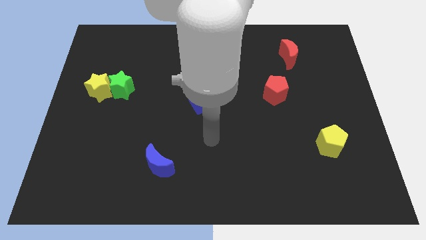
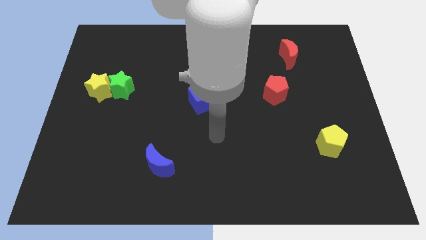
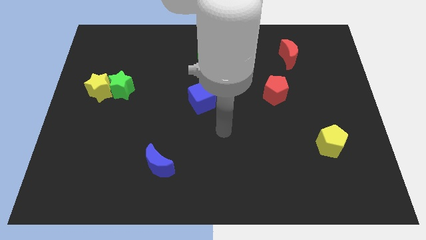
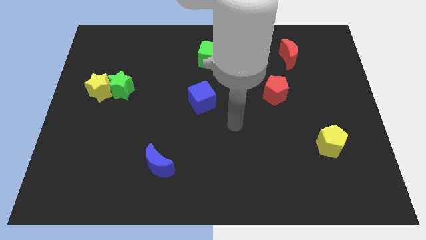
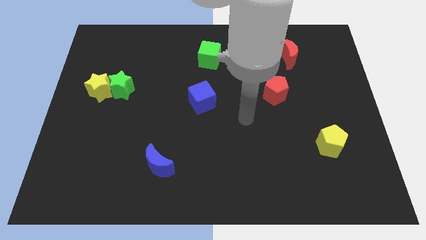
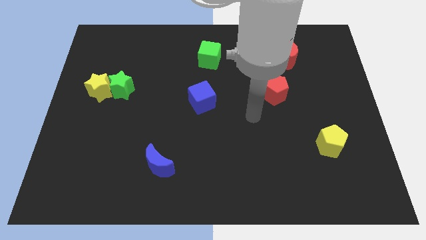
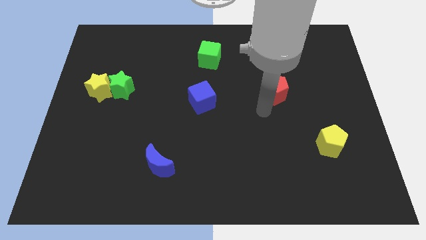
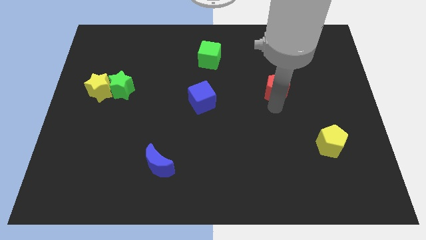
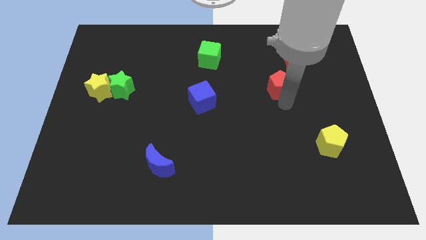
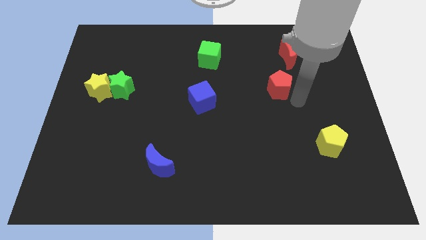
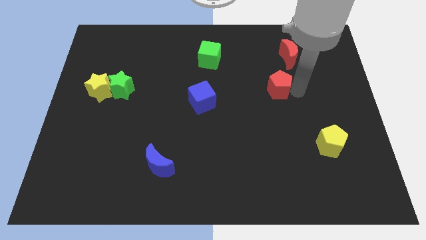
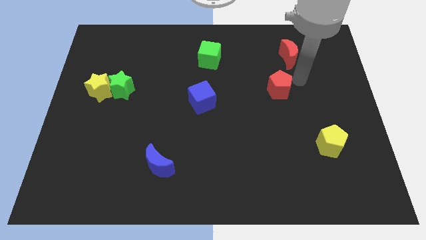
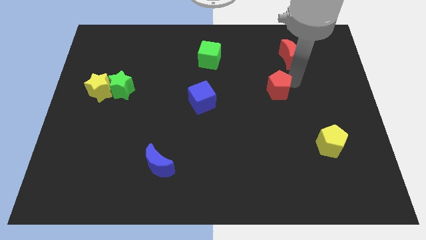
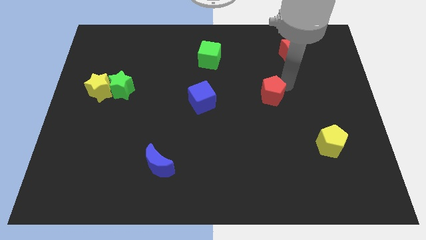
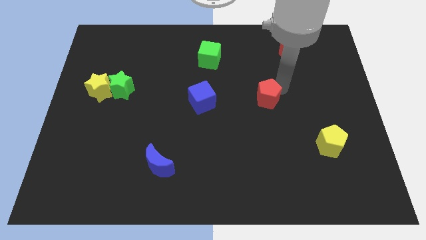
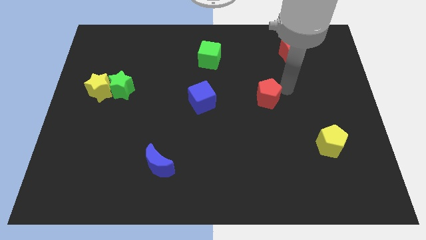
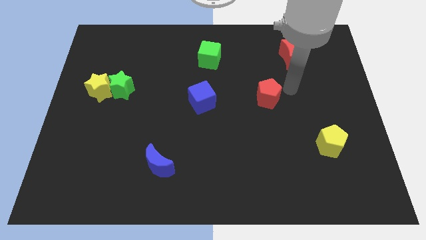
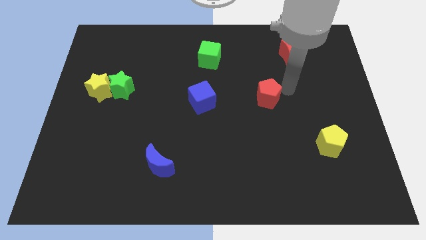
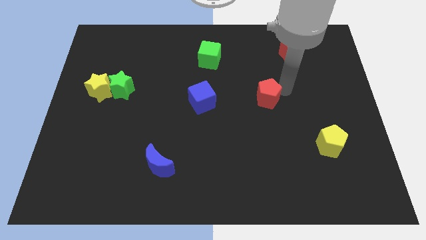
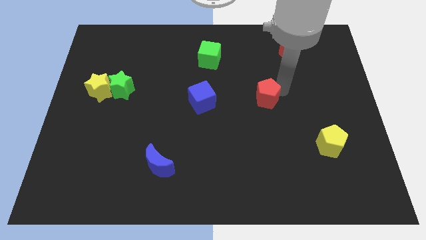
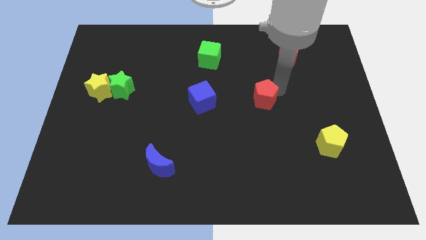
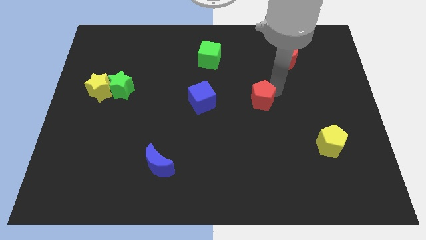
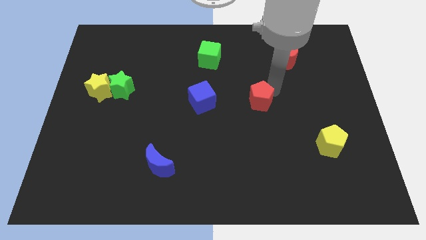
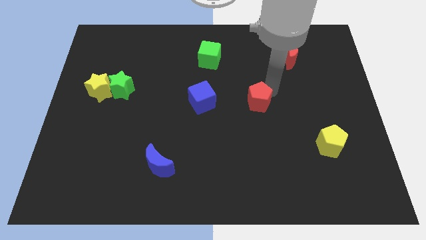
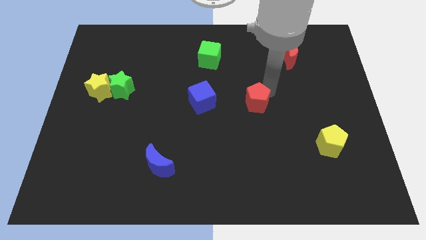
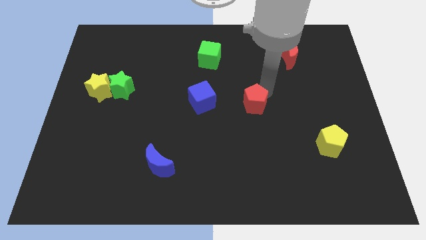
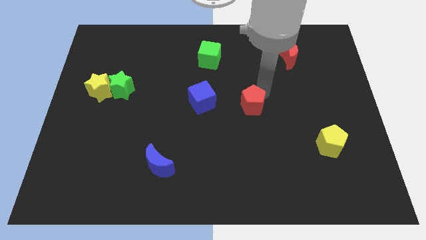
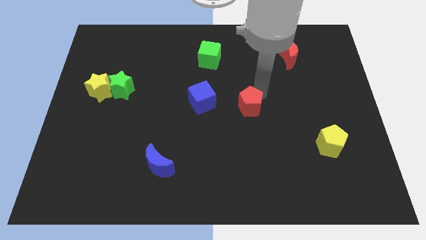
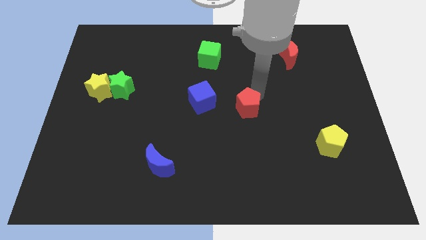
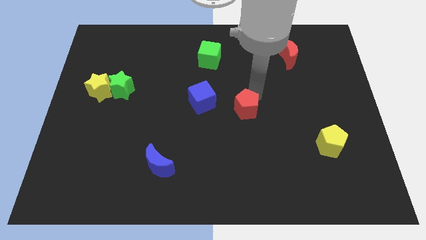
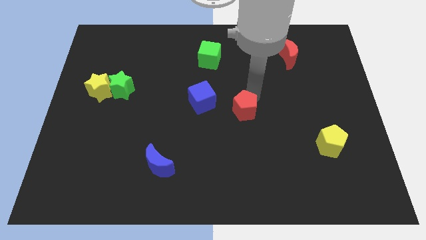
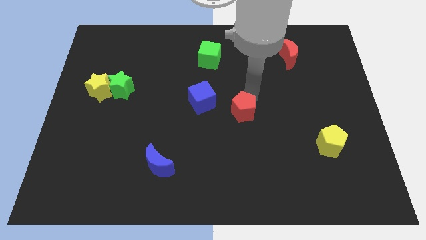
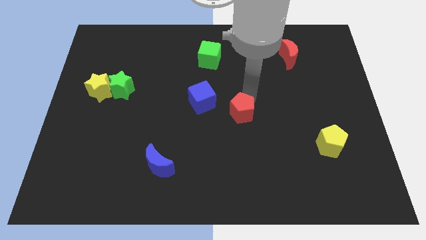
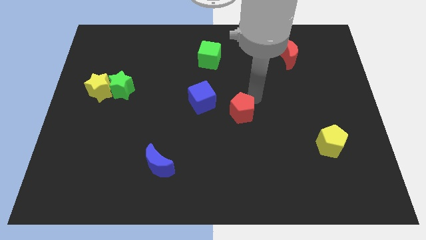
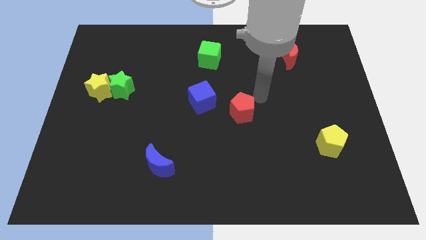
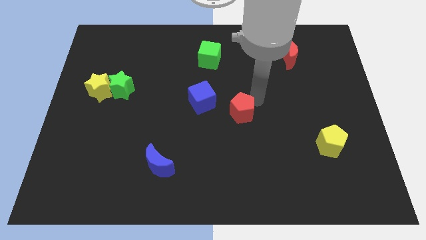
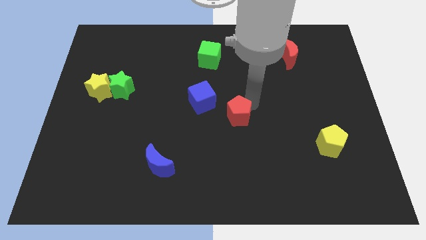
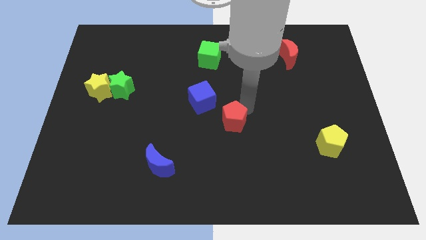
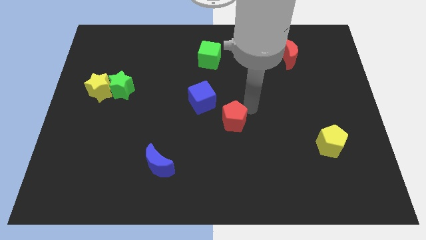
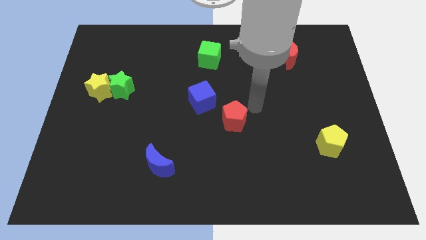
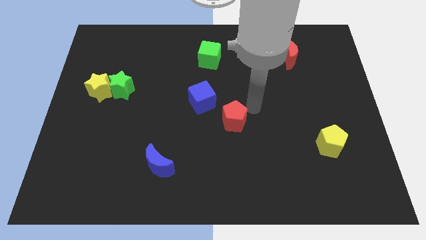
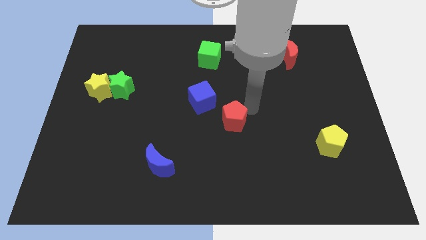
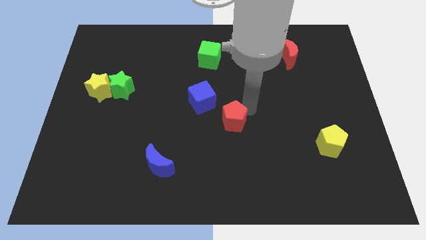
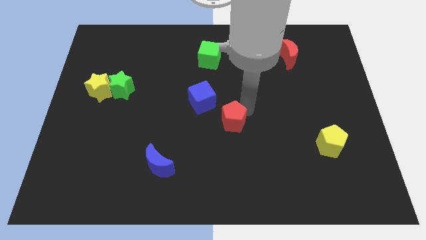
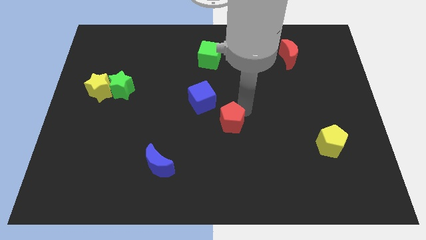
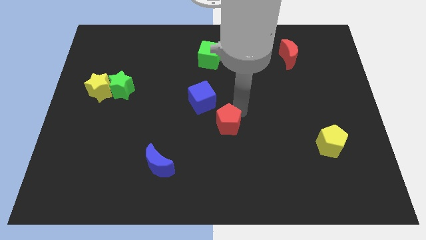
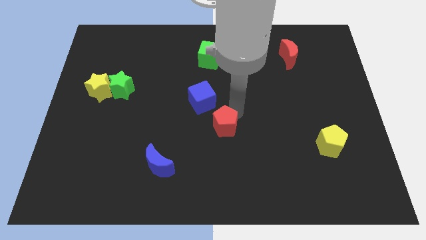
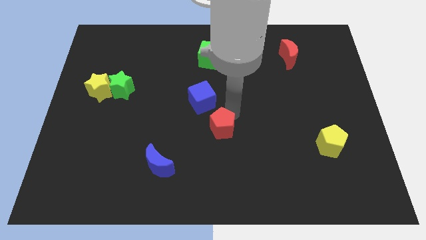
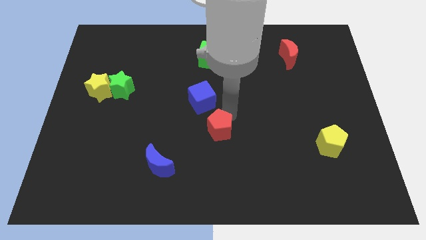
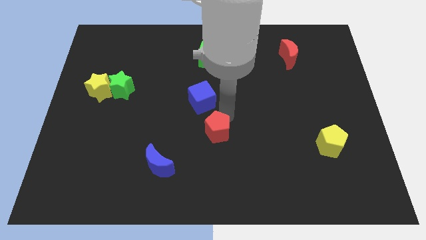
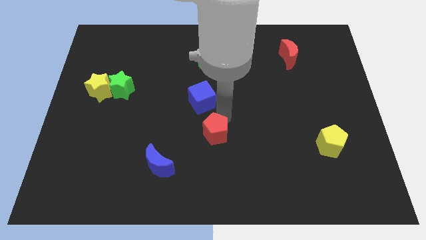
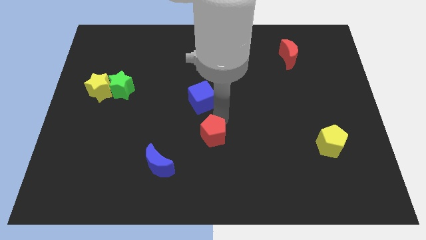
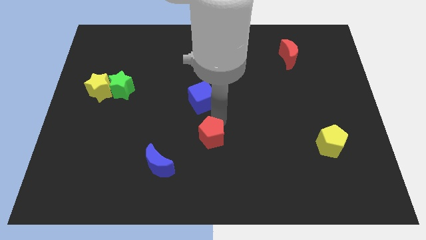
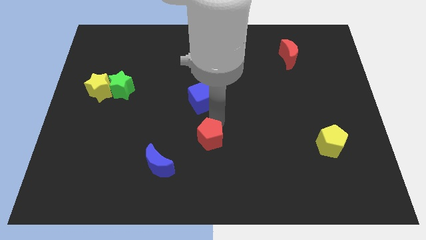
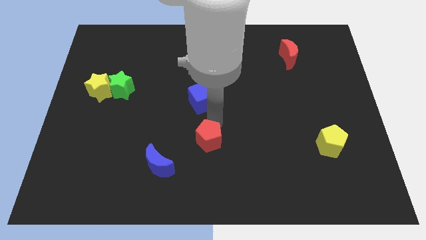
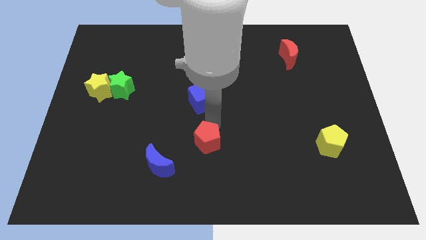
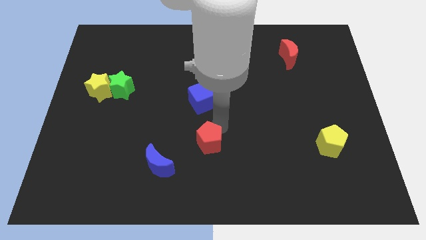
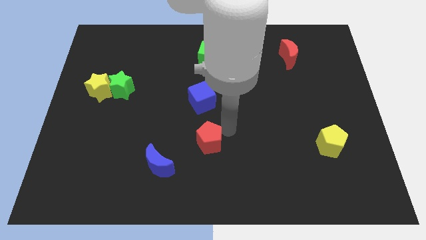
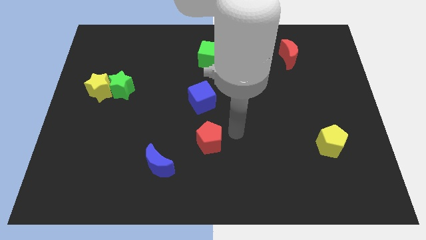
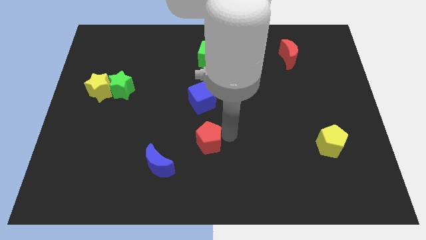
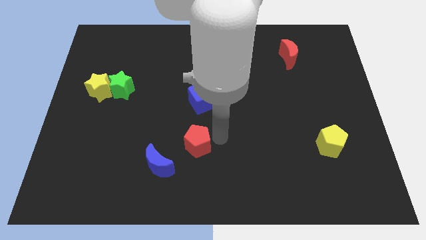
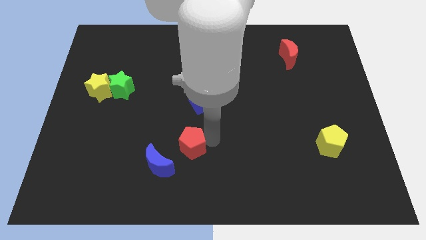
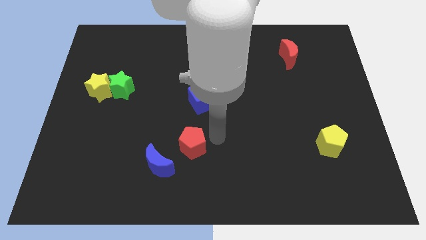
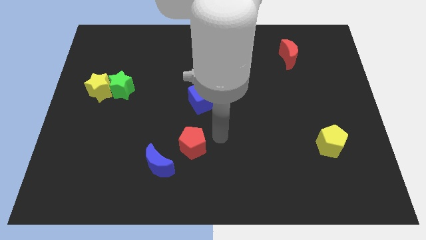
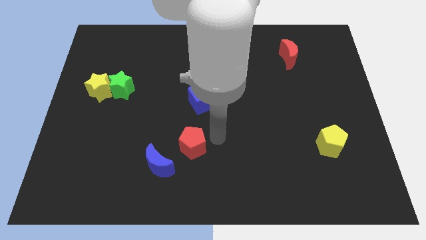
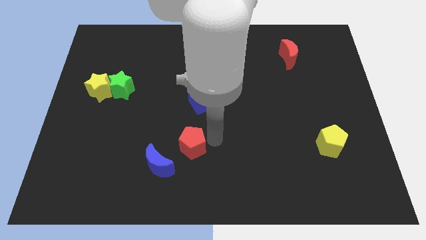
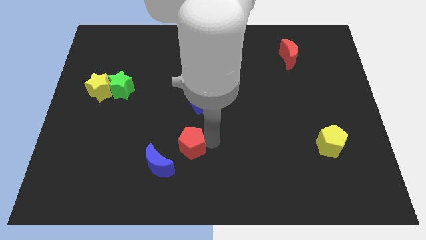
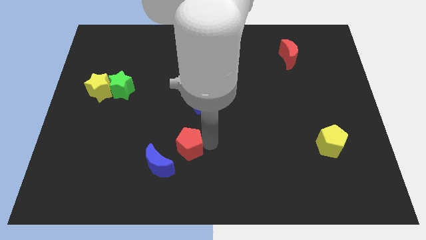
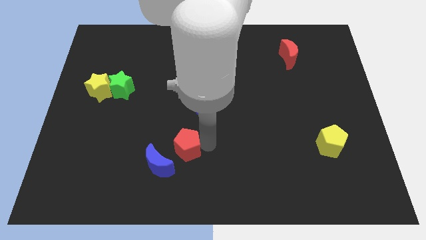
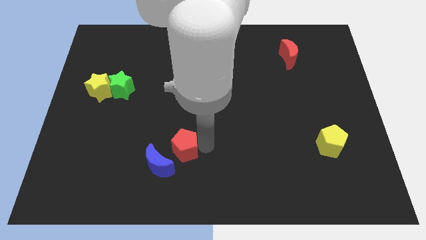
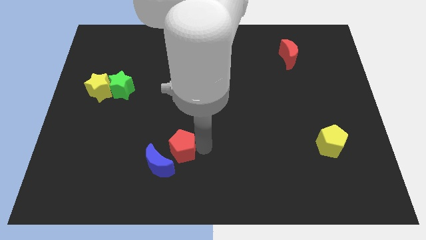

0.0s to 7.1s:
move the red pentagon towards the blue moon

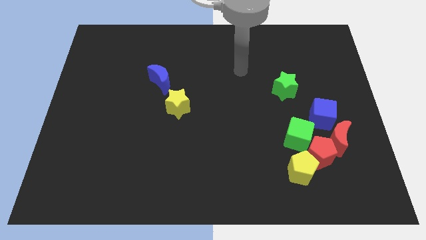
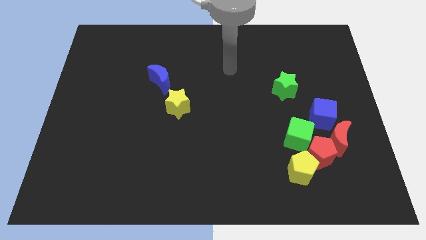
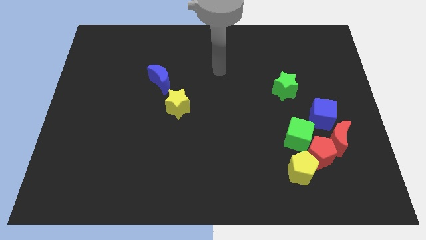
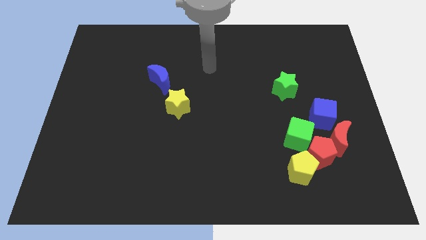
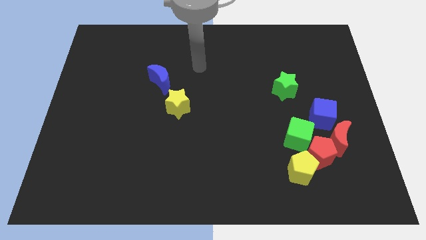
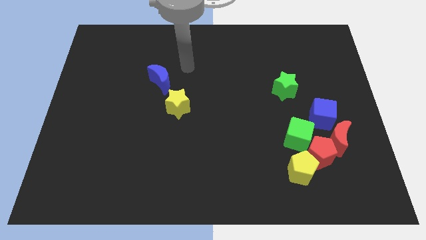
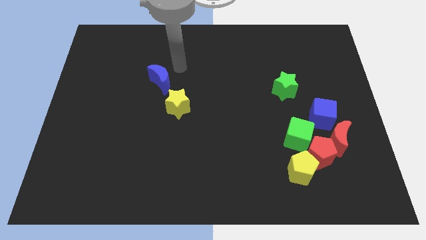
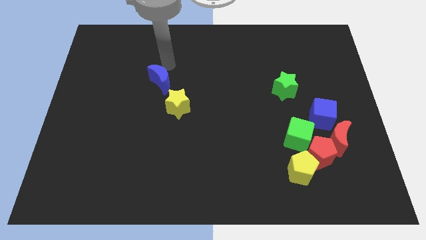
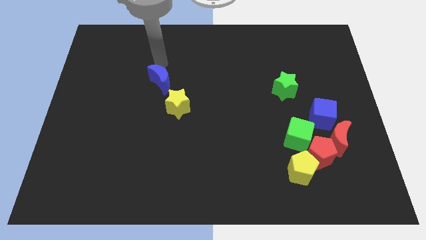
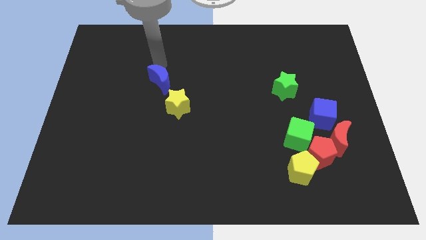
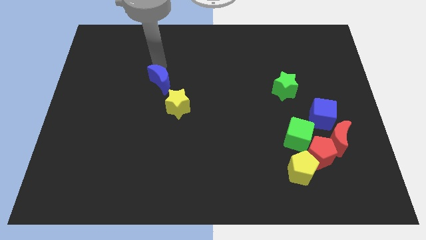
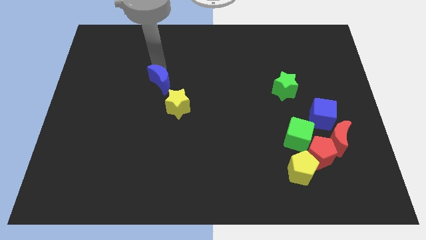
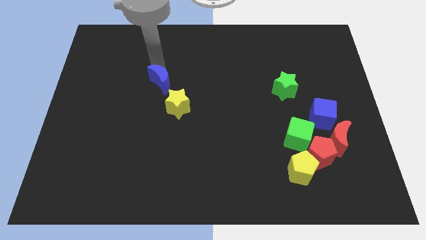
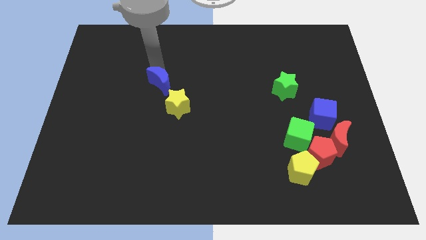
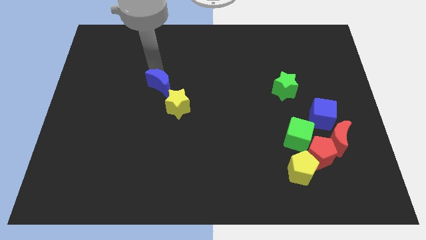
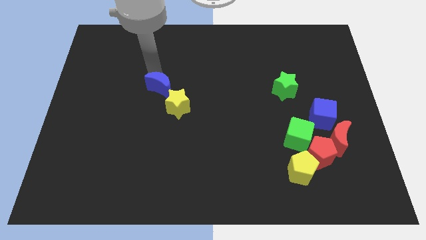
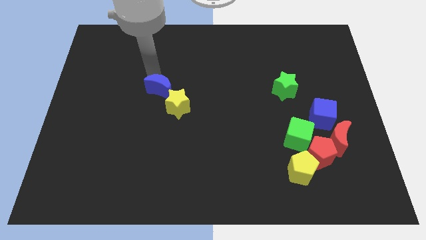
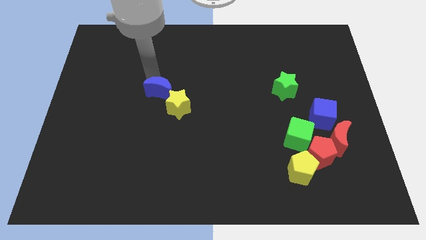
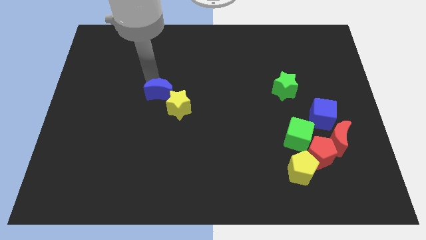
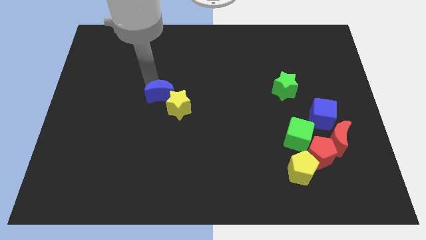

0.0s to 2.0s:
put the blue moon close to the yellow star
